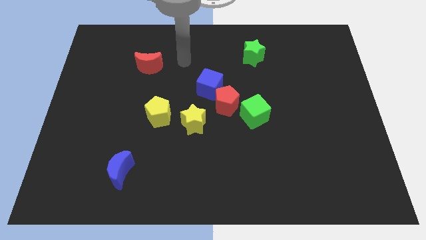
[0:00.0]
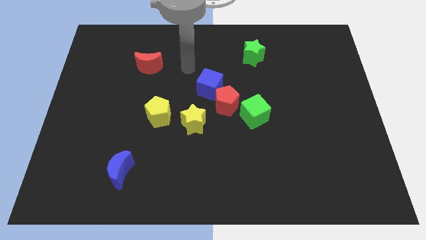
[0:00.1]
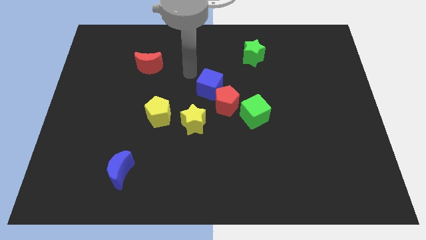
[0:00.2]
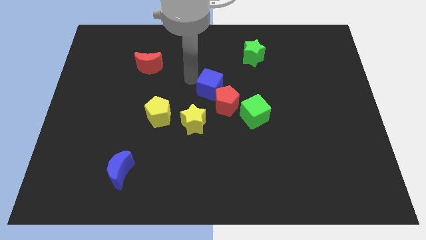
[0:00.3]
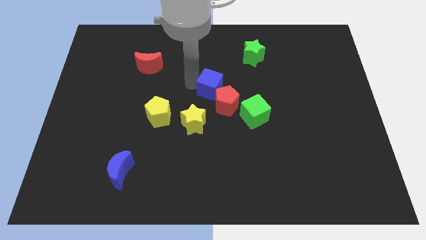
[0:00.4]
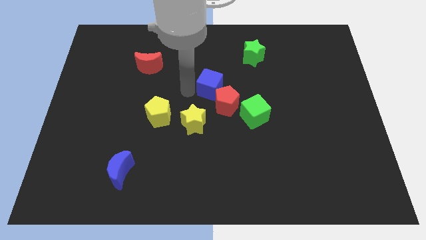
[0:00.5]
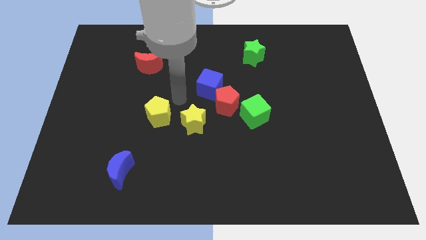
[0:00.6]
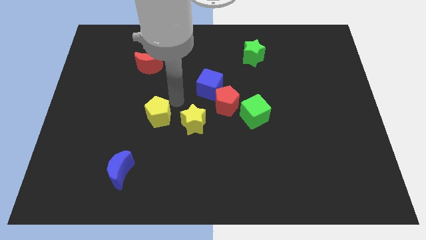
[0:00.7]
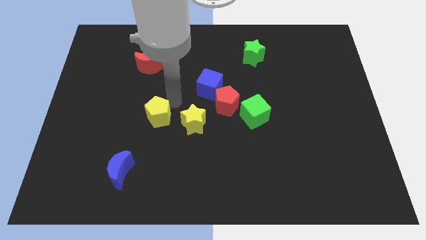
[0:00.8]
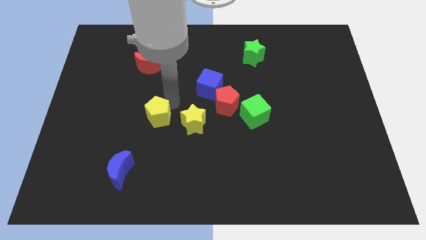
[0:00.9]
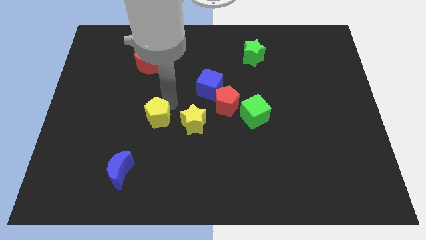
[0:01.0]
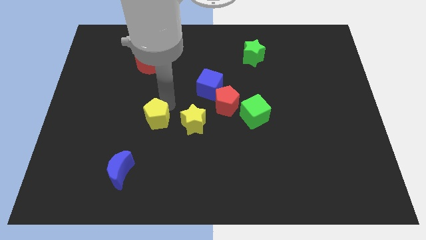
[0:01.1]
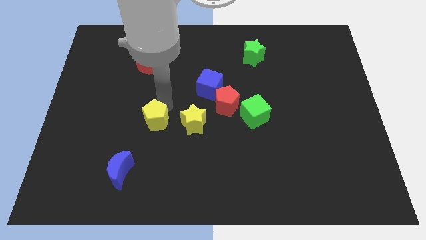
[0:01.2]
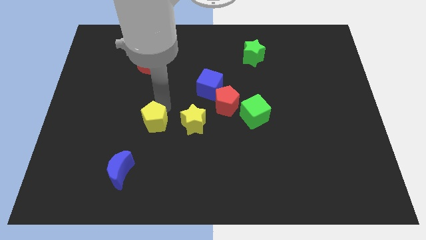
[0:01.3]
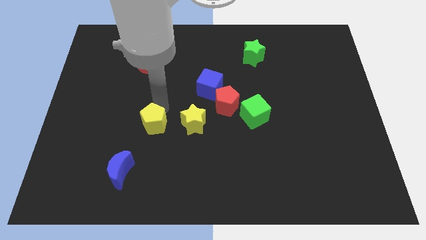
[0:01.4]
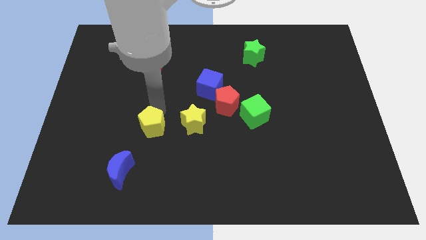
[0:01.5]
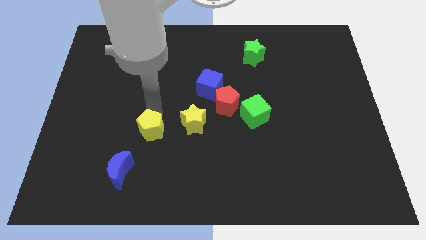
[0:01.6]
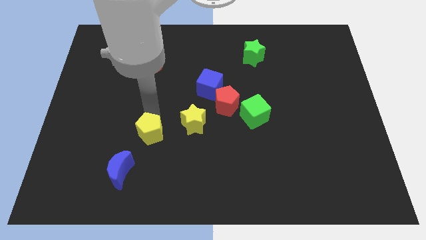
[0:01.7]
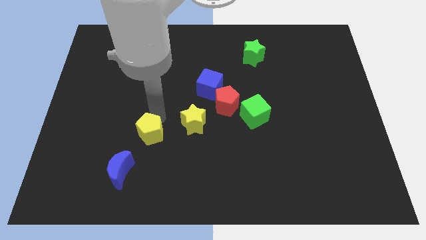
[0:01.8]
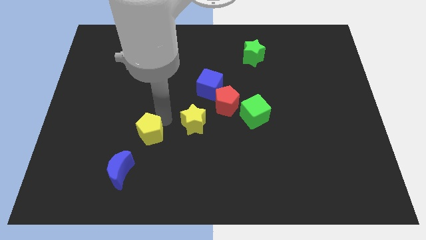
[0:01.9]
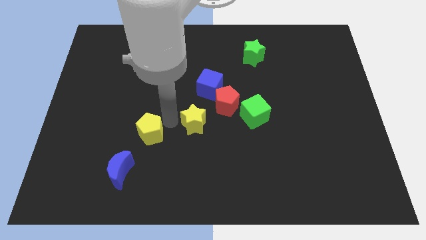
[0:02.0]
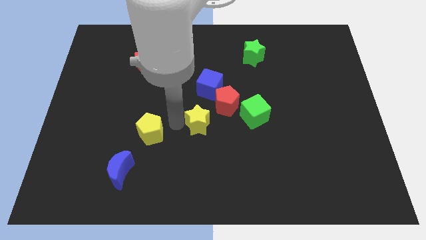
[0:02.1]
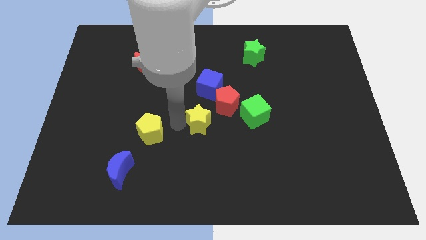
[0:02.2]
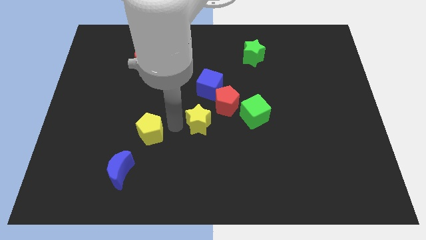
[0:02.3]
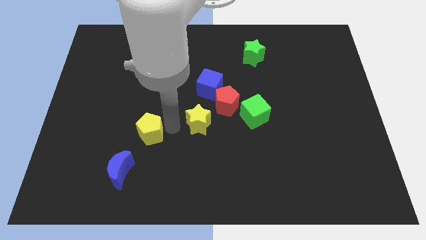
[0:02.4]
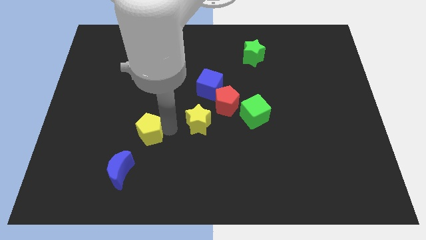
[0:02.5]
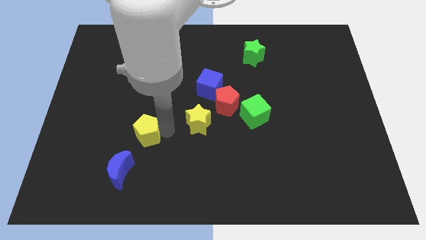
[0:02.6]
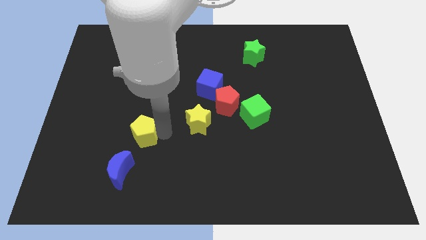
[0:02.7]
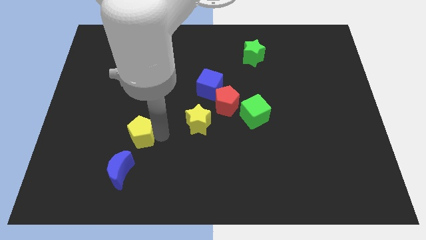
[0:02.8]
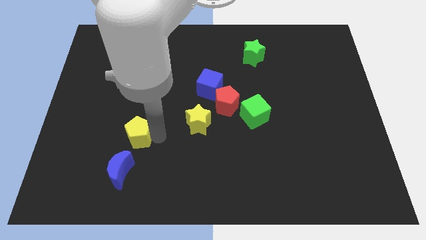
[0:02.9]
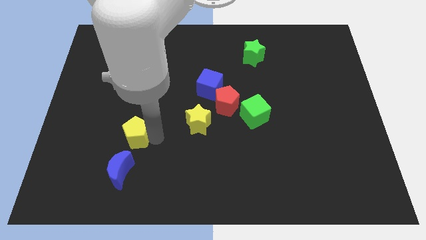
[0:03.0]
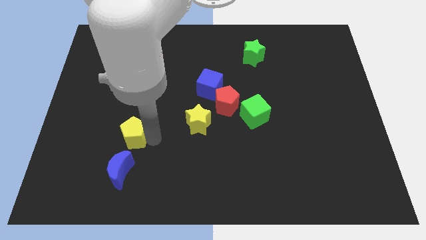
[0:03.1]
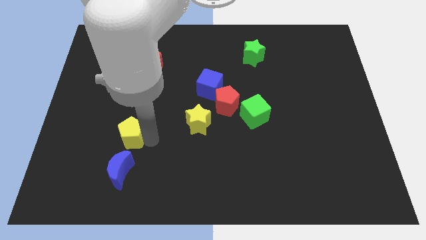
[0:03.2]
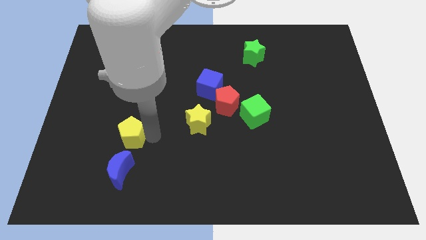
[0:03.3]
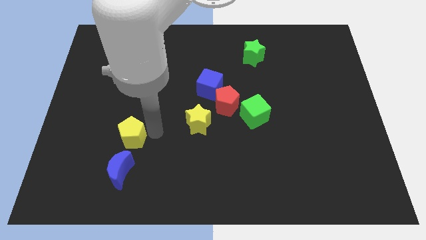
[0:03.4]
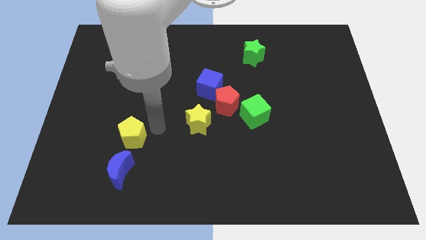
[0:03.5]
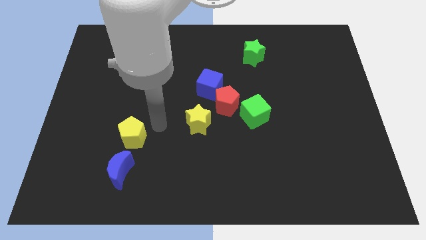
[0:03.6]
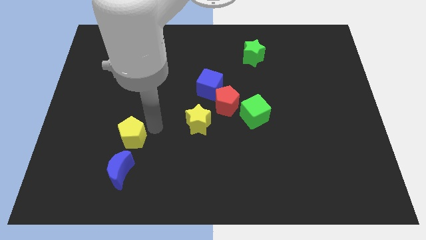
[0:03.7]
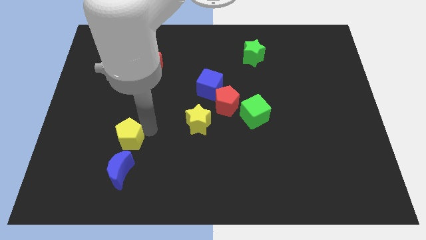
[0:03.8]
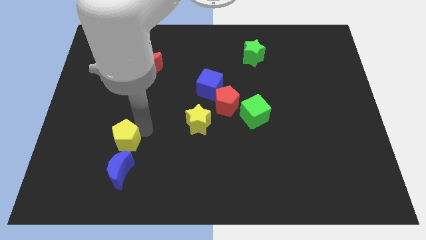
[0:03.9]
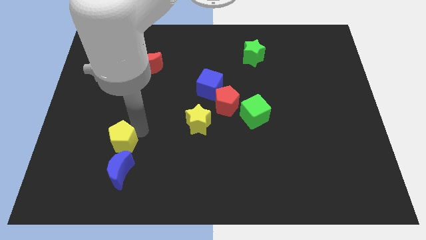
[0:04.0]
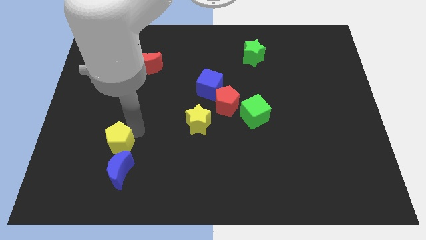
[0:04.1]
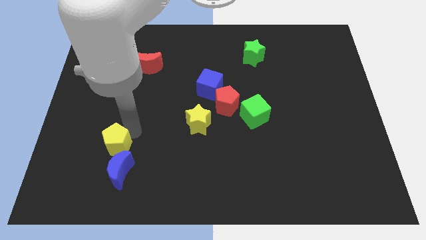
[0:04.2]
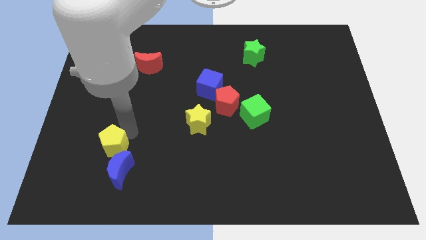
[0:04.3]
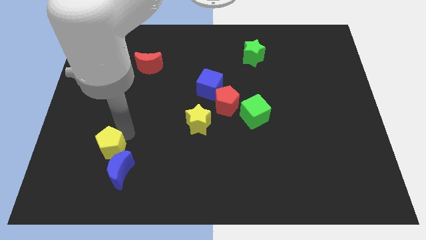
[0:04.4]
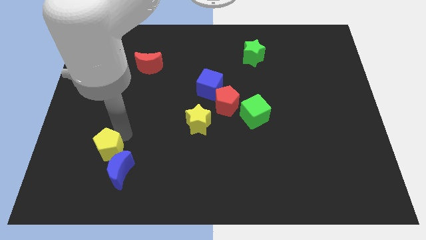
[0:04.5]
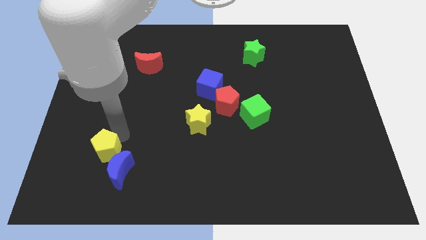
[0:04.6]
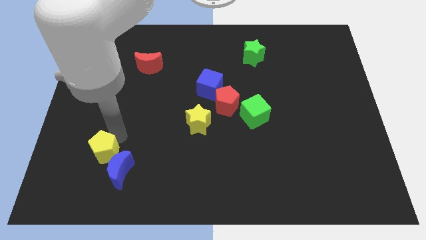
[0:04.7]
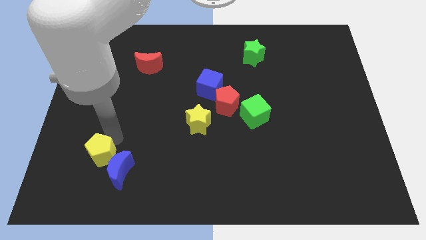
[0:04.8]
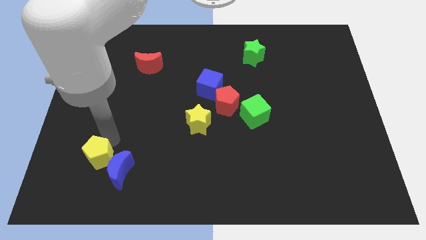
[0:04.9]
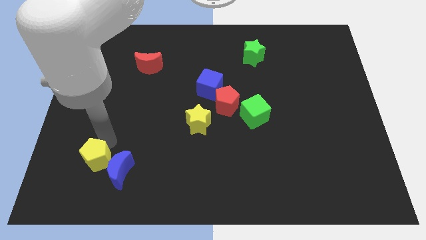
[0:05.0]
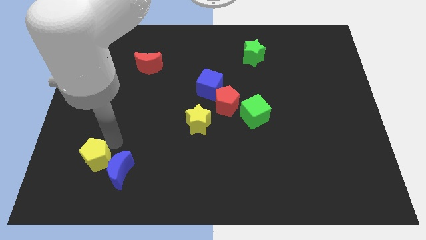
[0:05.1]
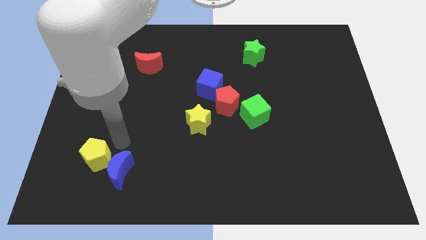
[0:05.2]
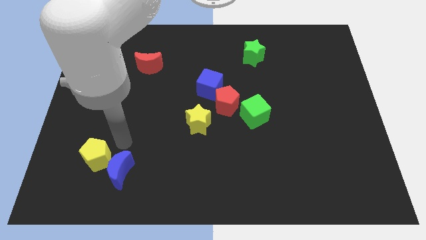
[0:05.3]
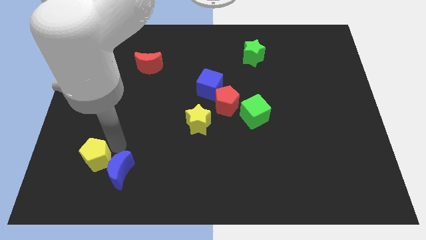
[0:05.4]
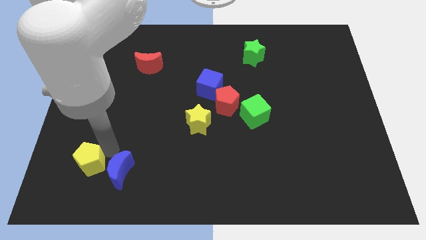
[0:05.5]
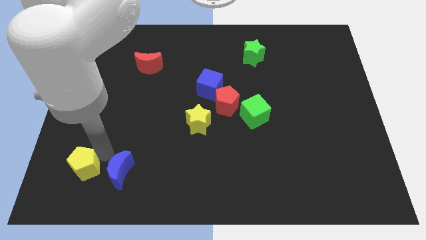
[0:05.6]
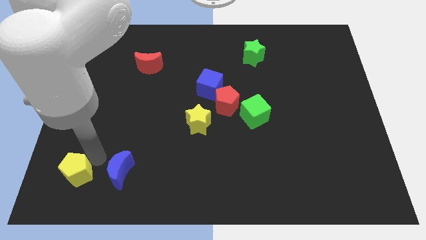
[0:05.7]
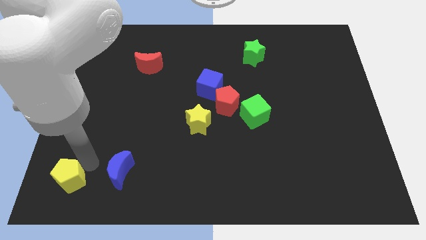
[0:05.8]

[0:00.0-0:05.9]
move the yellow pentagon to the bottom left corner
